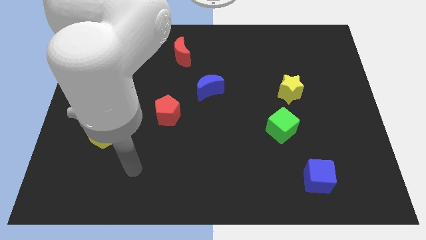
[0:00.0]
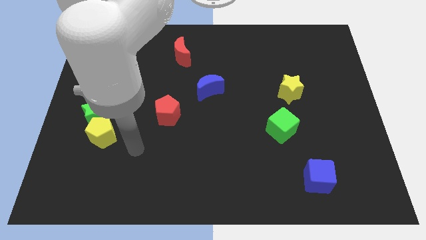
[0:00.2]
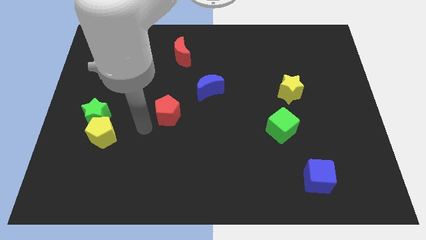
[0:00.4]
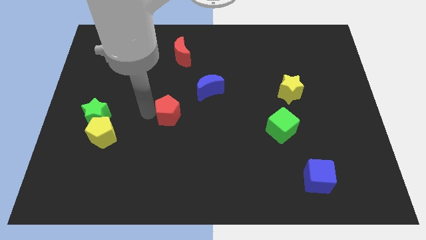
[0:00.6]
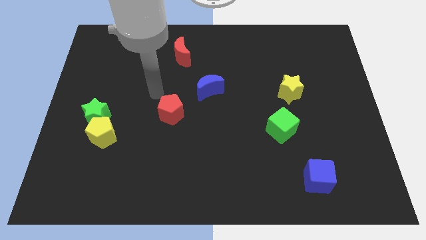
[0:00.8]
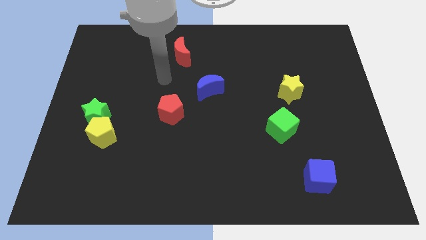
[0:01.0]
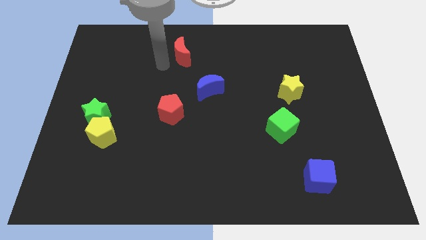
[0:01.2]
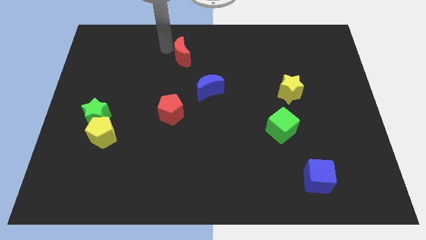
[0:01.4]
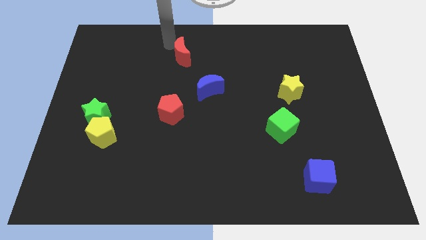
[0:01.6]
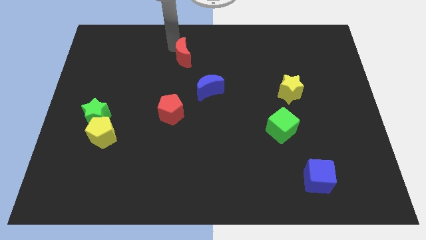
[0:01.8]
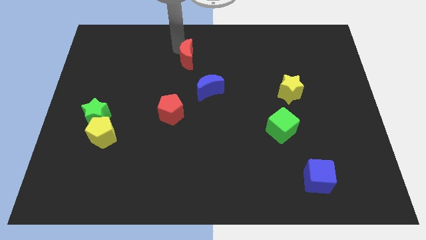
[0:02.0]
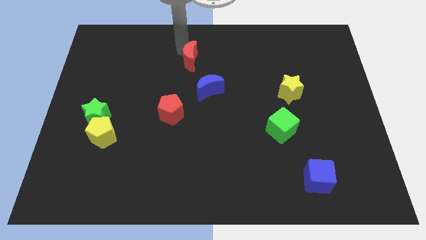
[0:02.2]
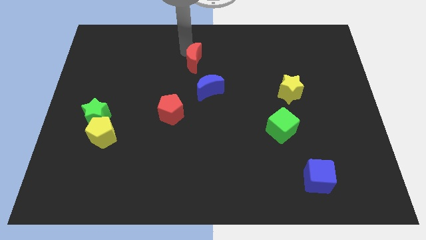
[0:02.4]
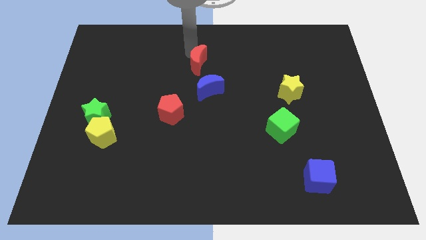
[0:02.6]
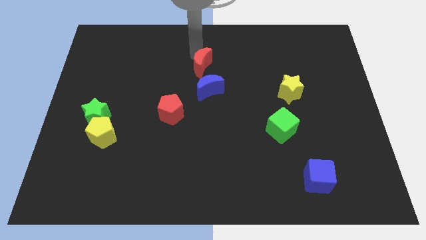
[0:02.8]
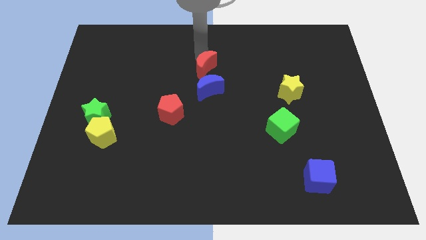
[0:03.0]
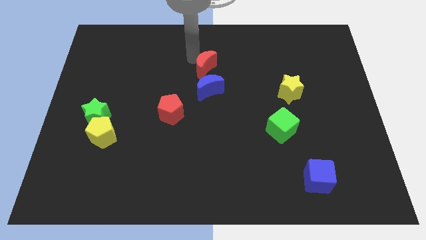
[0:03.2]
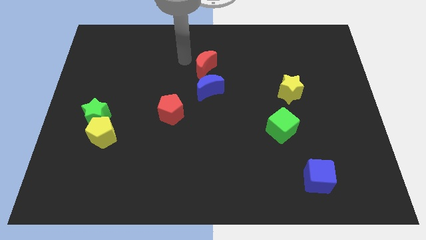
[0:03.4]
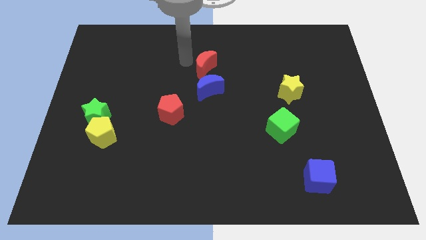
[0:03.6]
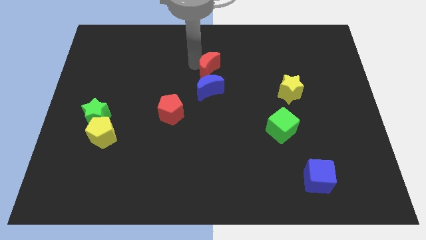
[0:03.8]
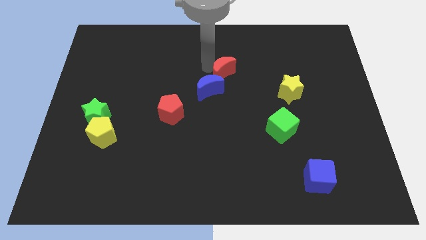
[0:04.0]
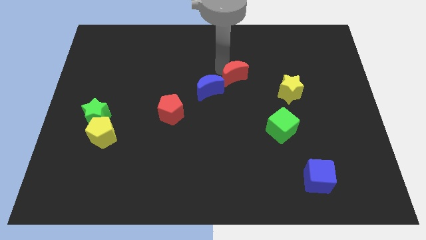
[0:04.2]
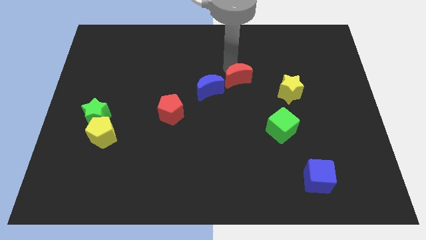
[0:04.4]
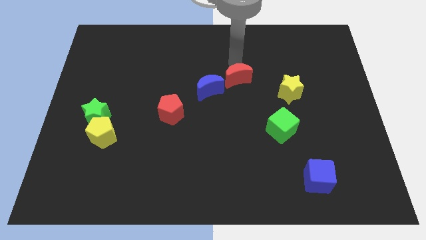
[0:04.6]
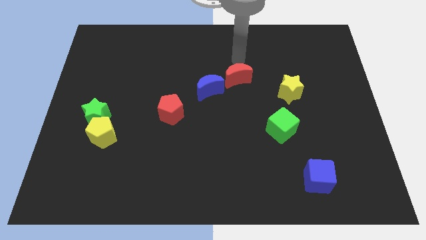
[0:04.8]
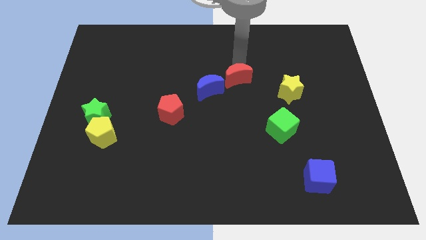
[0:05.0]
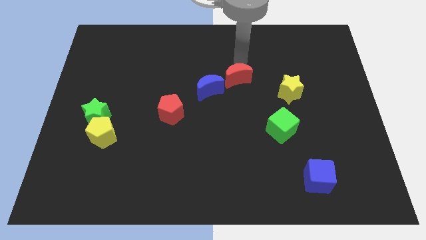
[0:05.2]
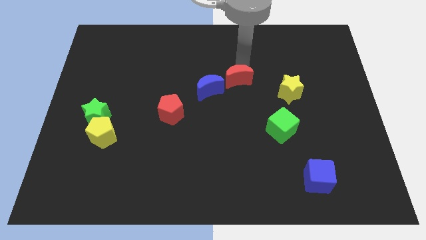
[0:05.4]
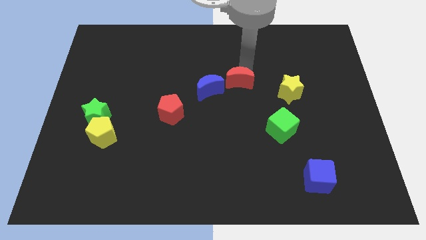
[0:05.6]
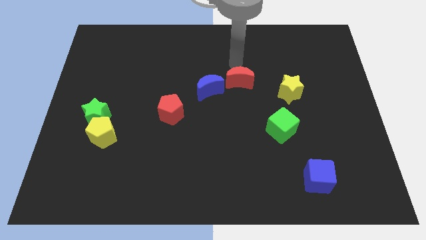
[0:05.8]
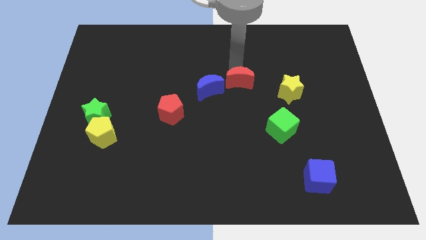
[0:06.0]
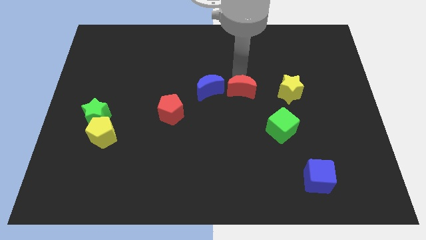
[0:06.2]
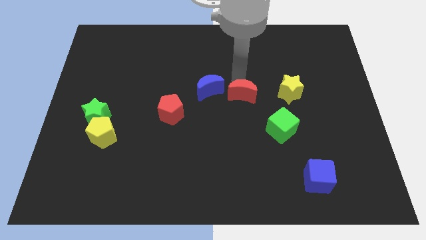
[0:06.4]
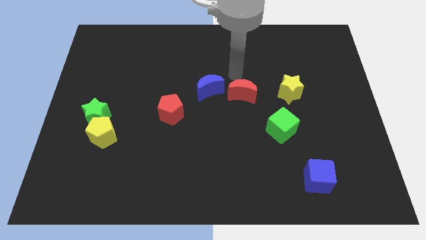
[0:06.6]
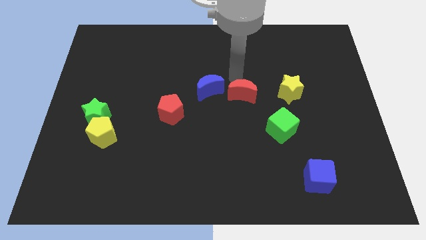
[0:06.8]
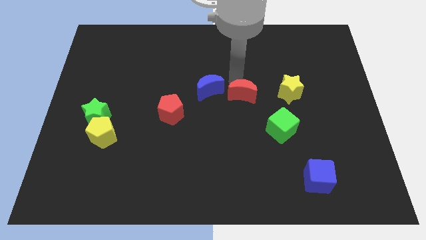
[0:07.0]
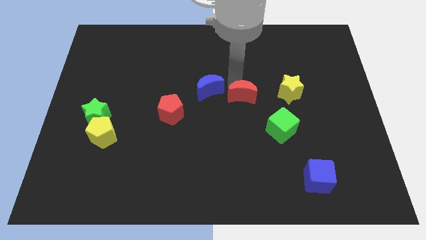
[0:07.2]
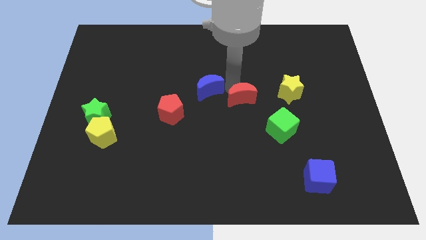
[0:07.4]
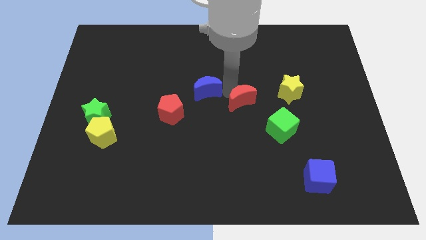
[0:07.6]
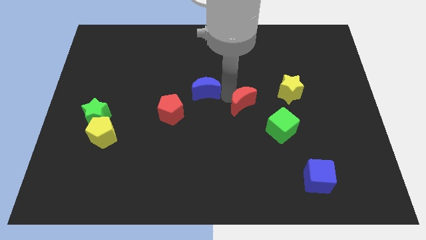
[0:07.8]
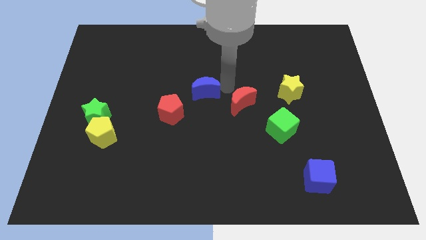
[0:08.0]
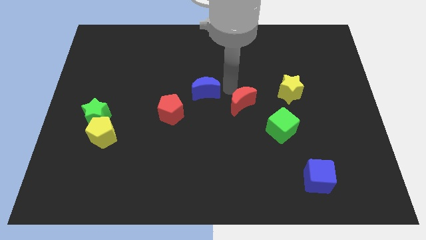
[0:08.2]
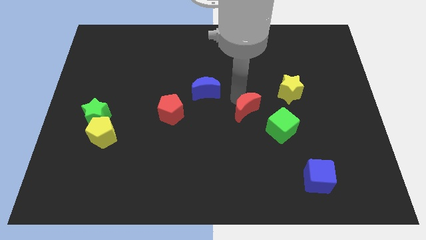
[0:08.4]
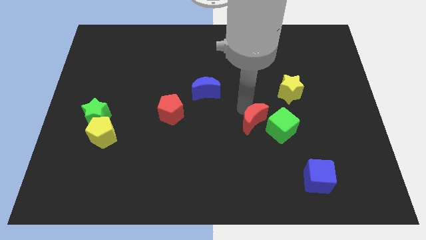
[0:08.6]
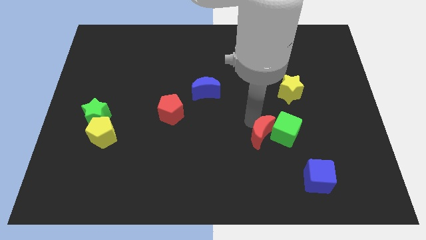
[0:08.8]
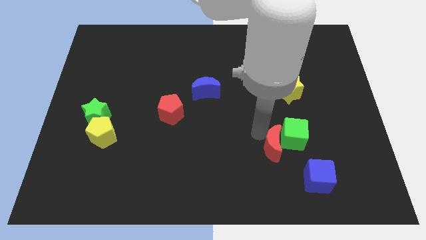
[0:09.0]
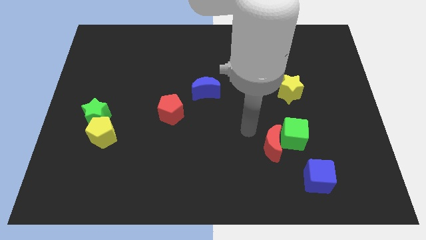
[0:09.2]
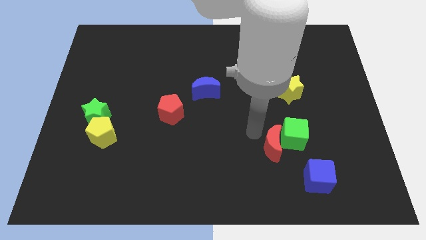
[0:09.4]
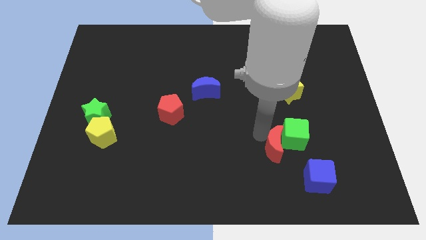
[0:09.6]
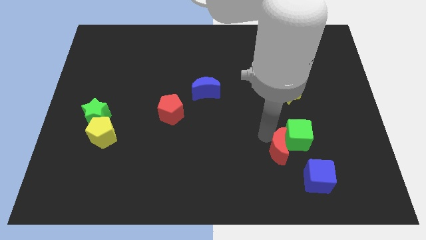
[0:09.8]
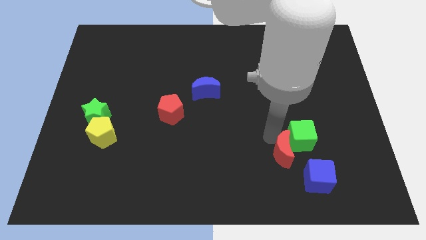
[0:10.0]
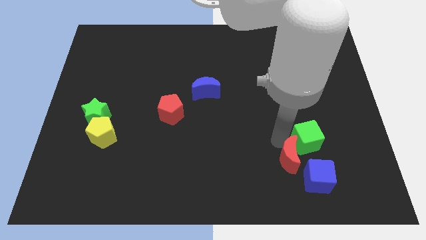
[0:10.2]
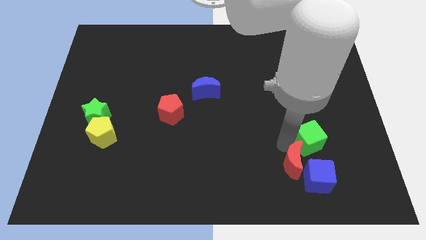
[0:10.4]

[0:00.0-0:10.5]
push the red moon to the blue cube

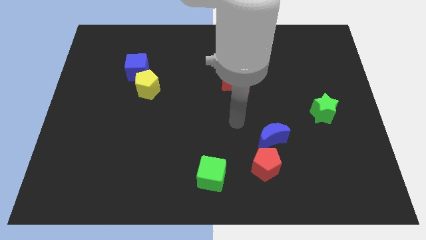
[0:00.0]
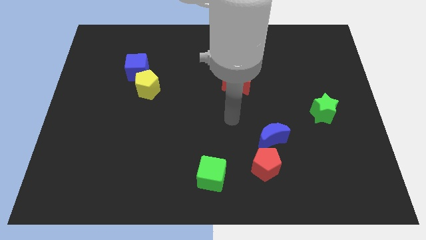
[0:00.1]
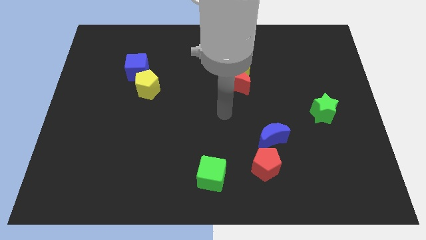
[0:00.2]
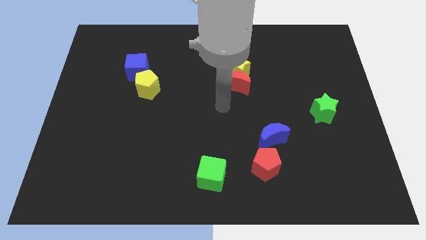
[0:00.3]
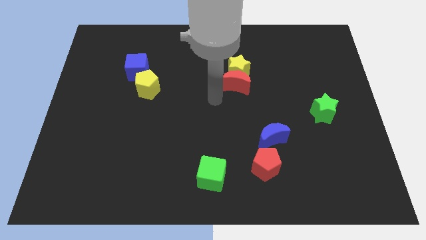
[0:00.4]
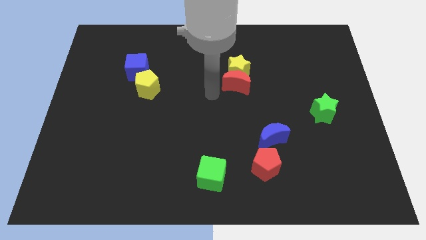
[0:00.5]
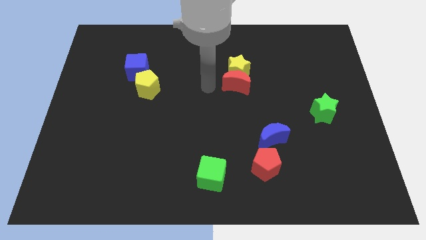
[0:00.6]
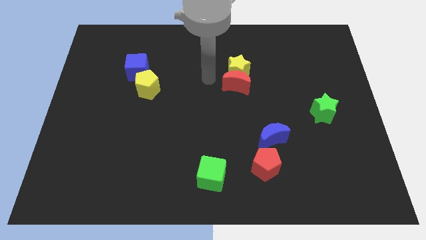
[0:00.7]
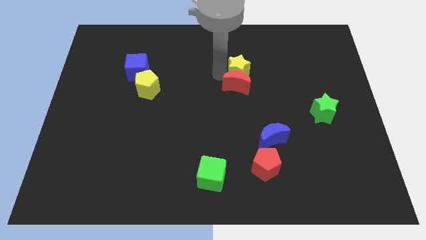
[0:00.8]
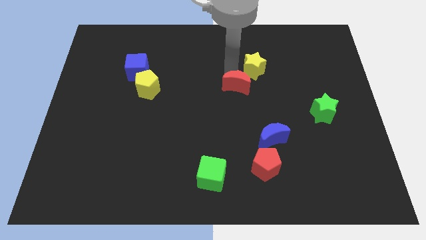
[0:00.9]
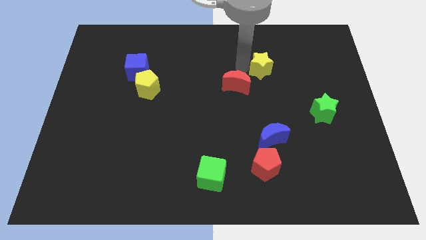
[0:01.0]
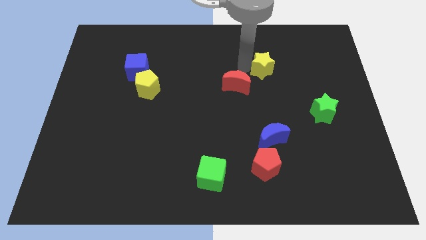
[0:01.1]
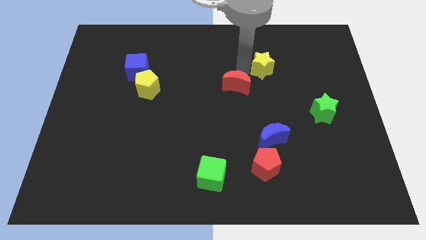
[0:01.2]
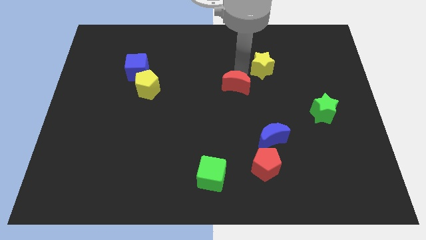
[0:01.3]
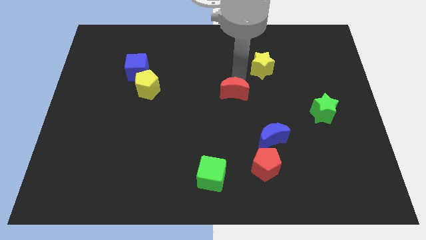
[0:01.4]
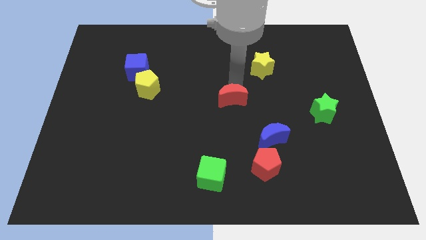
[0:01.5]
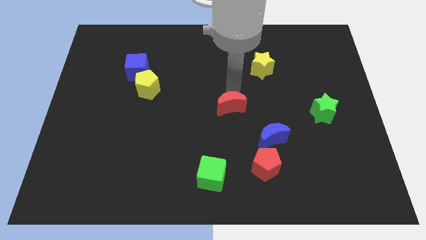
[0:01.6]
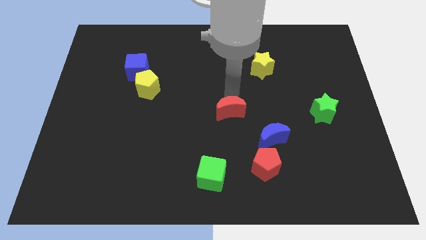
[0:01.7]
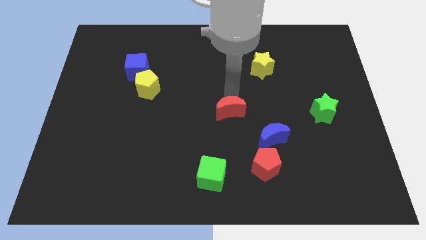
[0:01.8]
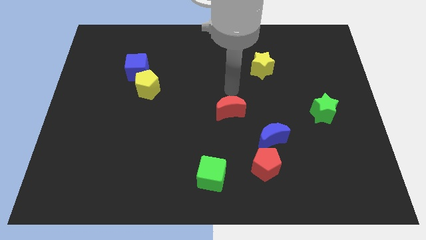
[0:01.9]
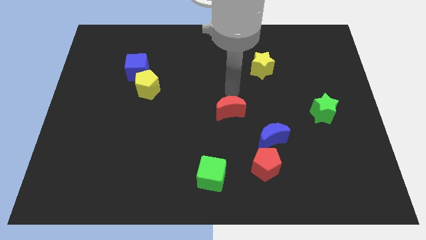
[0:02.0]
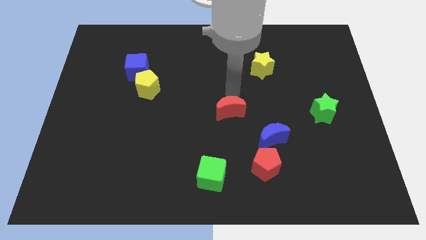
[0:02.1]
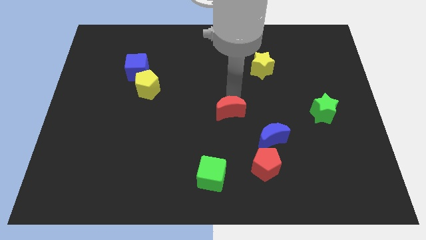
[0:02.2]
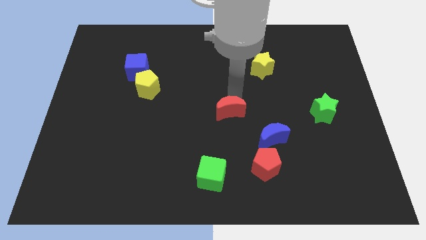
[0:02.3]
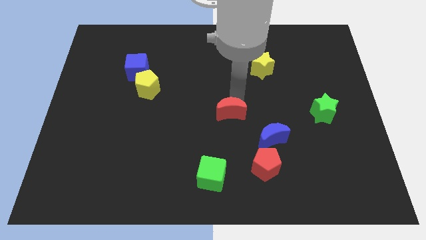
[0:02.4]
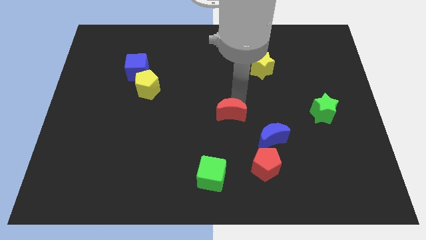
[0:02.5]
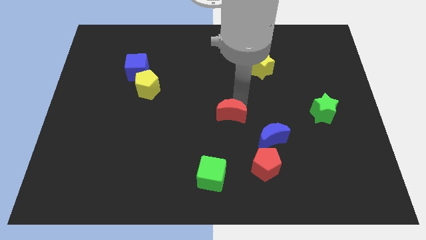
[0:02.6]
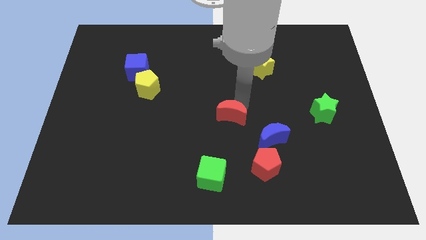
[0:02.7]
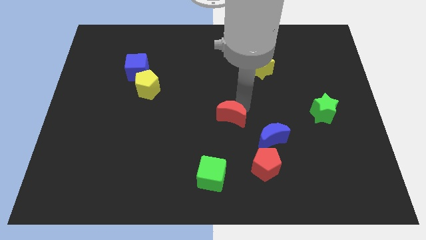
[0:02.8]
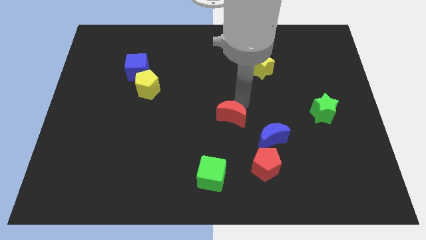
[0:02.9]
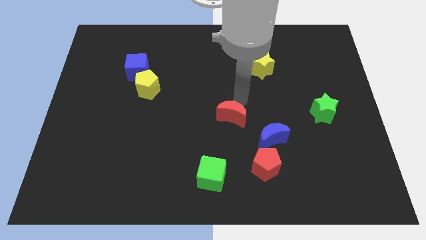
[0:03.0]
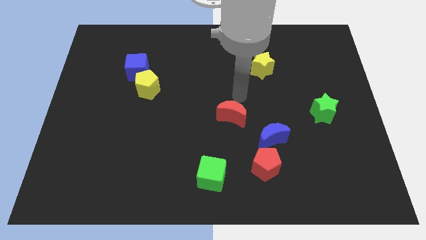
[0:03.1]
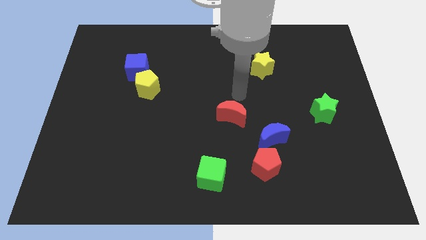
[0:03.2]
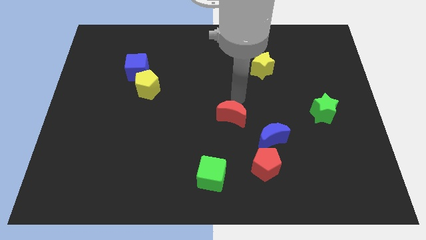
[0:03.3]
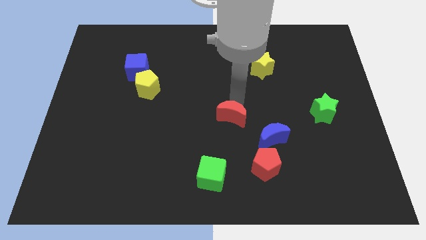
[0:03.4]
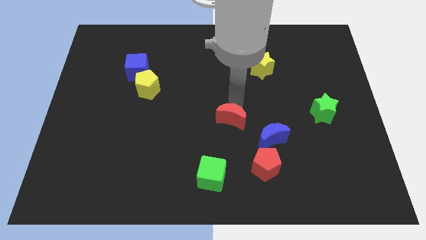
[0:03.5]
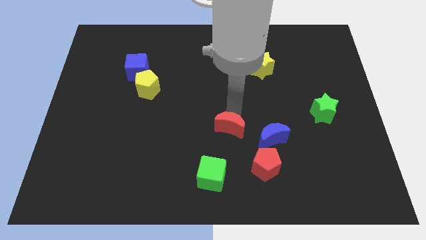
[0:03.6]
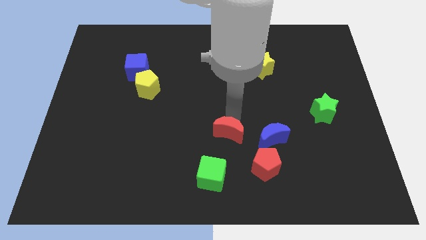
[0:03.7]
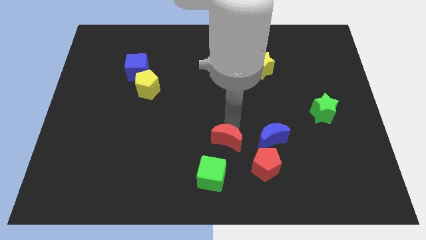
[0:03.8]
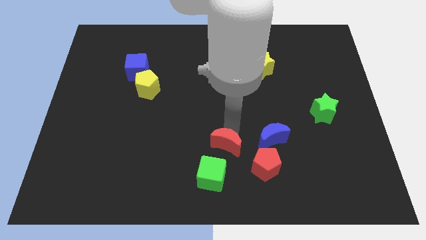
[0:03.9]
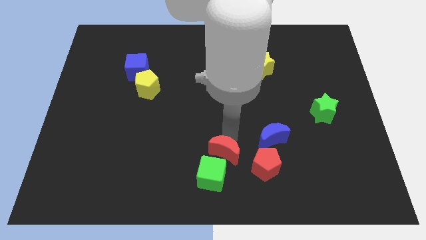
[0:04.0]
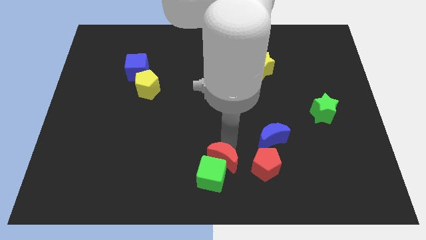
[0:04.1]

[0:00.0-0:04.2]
move the red moon next to the green cube
